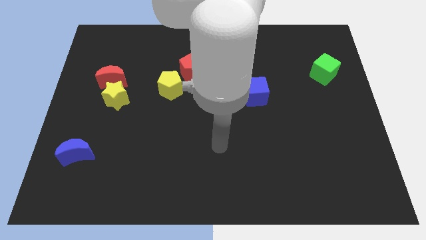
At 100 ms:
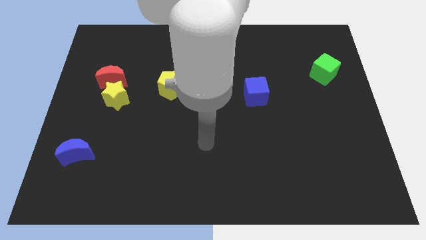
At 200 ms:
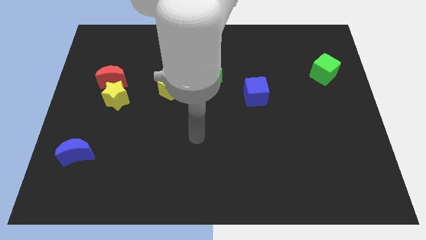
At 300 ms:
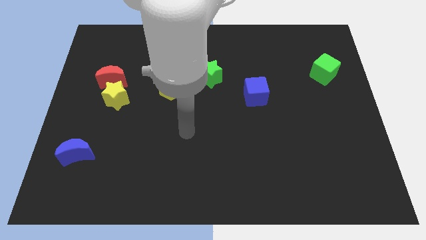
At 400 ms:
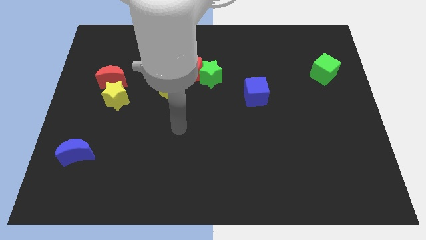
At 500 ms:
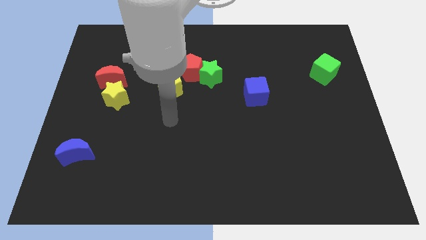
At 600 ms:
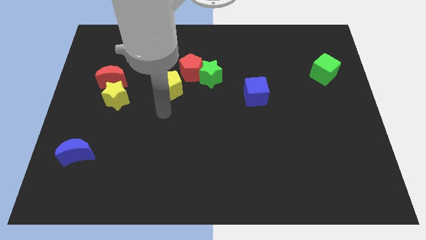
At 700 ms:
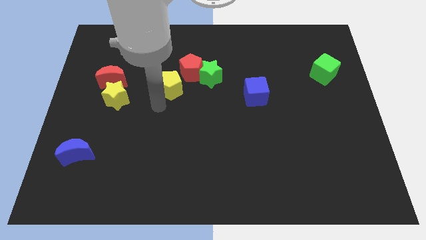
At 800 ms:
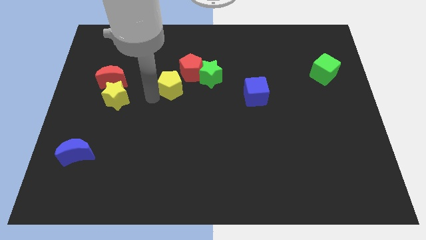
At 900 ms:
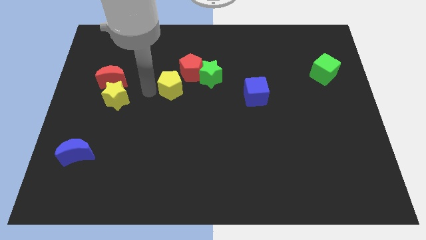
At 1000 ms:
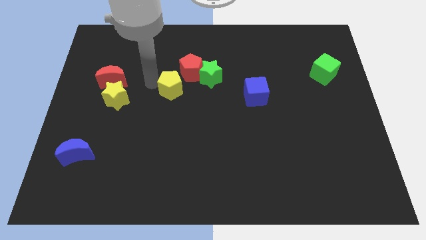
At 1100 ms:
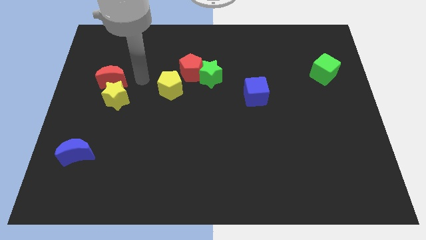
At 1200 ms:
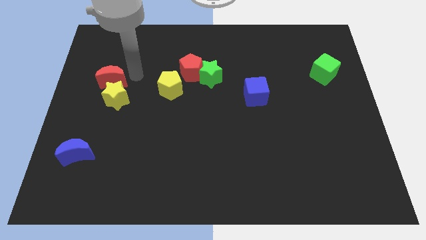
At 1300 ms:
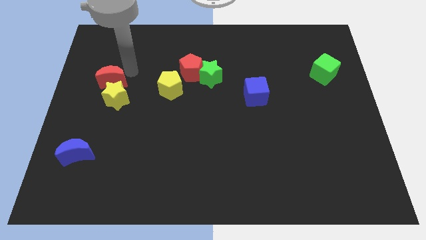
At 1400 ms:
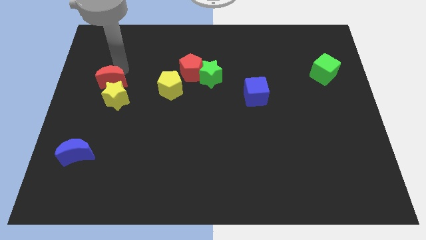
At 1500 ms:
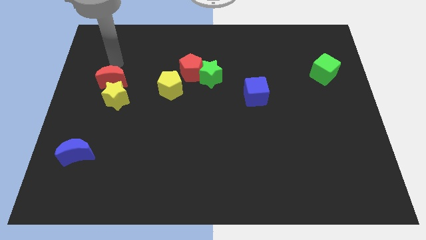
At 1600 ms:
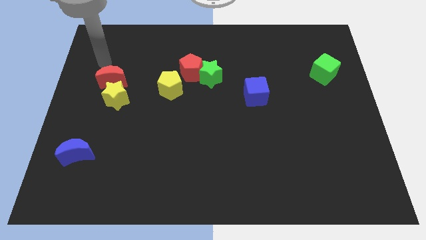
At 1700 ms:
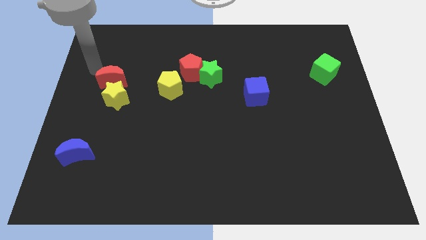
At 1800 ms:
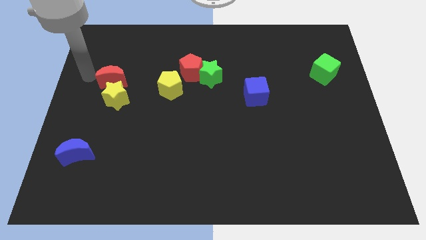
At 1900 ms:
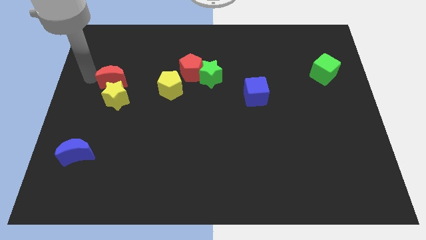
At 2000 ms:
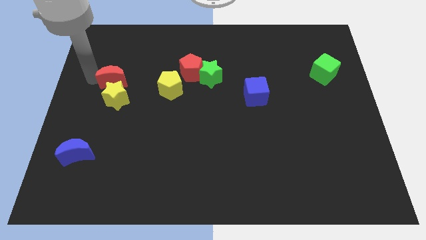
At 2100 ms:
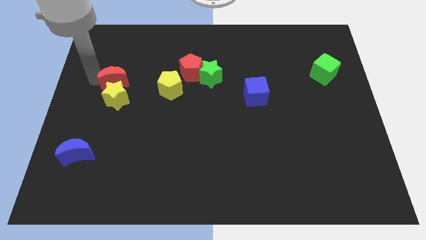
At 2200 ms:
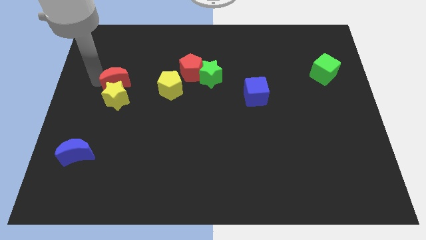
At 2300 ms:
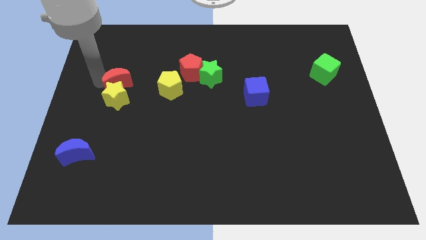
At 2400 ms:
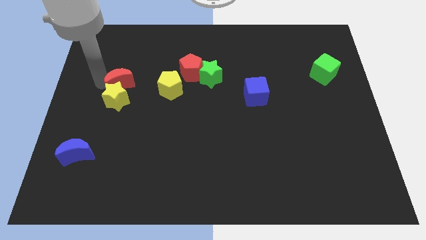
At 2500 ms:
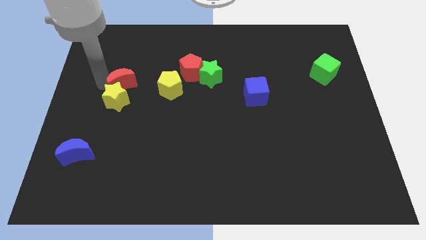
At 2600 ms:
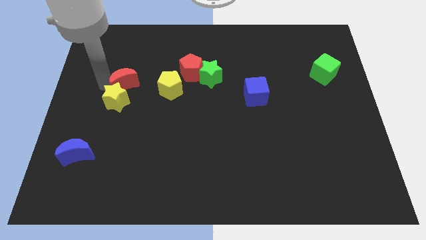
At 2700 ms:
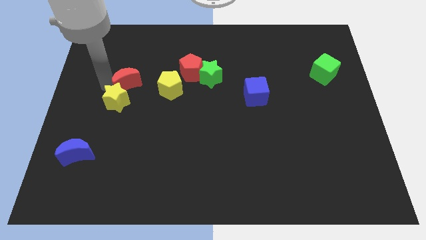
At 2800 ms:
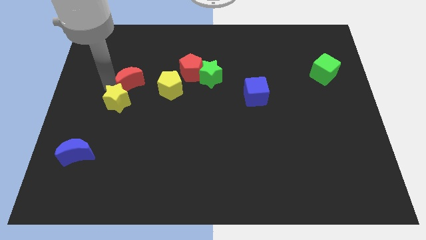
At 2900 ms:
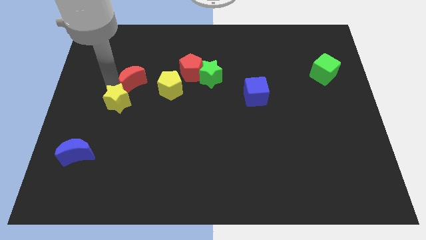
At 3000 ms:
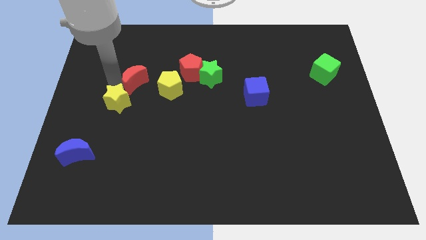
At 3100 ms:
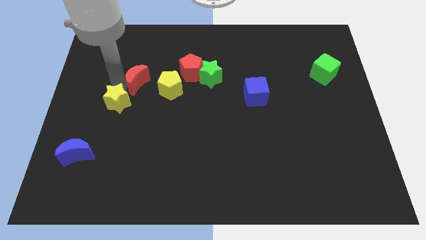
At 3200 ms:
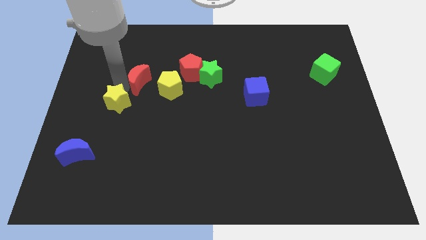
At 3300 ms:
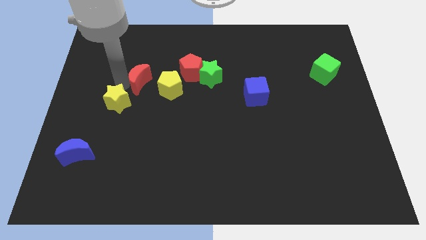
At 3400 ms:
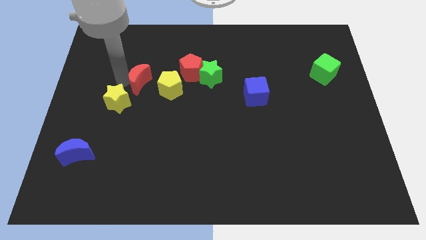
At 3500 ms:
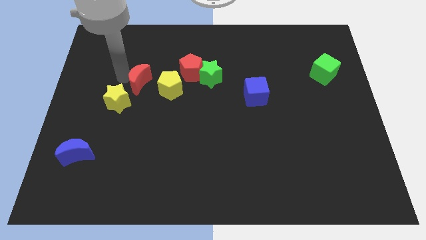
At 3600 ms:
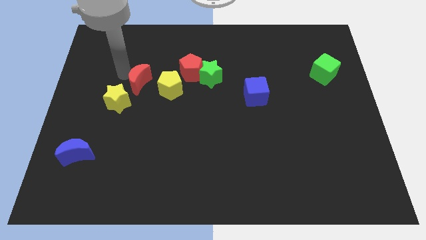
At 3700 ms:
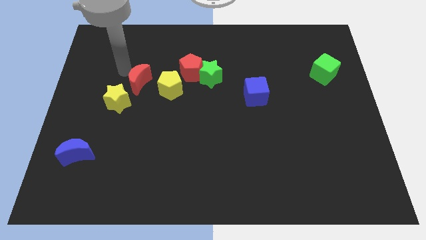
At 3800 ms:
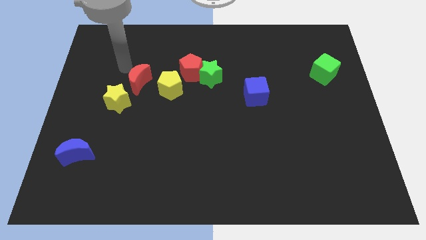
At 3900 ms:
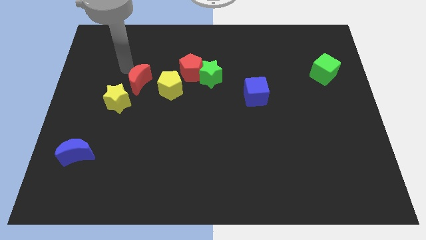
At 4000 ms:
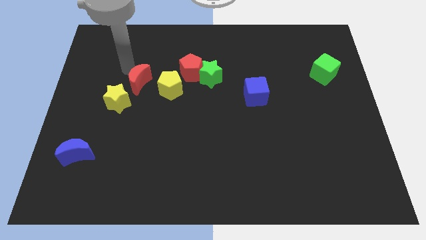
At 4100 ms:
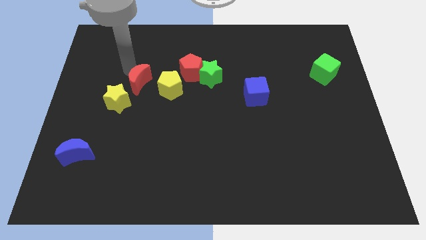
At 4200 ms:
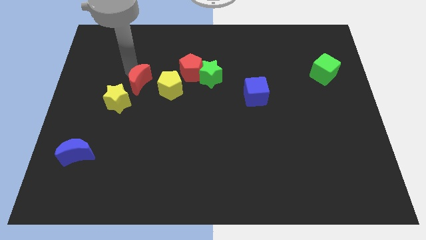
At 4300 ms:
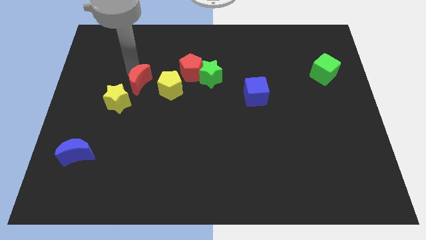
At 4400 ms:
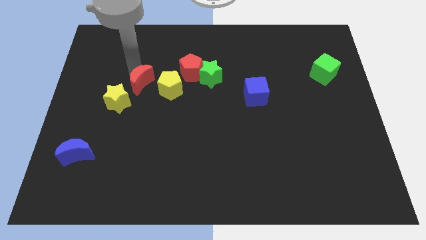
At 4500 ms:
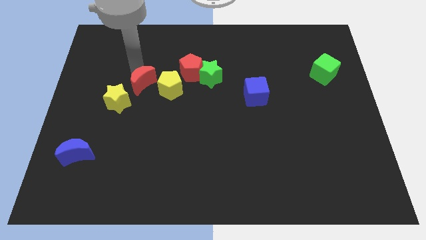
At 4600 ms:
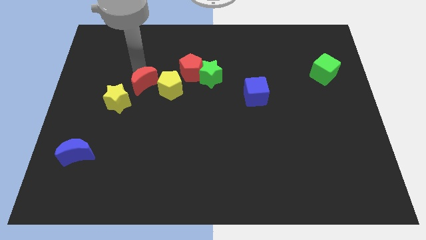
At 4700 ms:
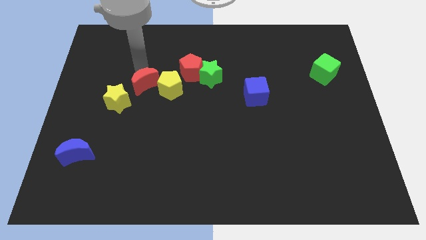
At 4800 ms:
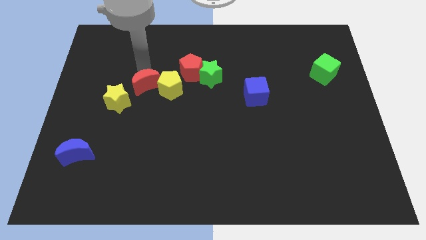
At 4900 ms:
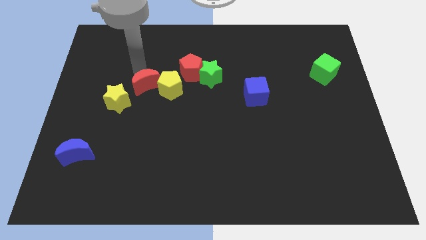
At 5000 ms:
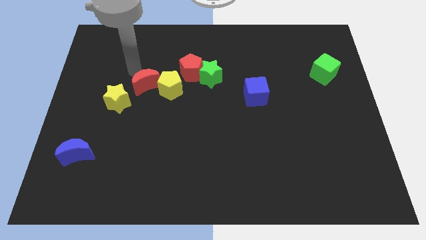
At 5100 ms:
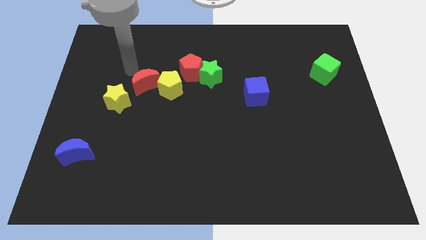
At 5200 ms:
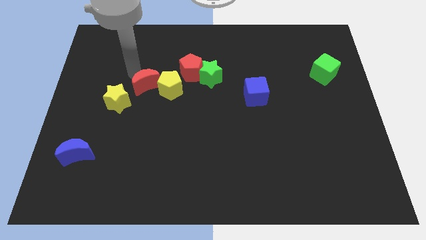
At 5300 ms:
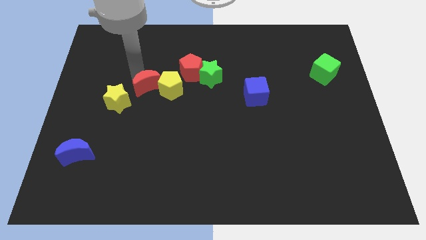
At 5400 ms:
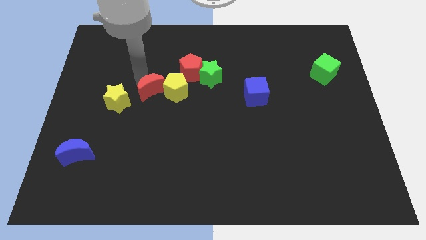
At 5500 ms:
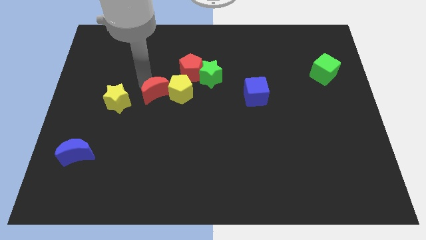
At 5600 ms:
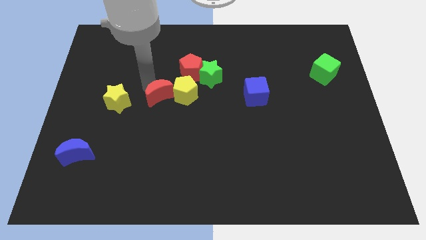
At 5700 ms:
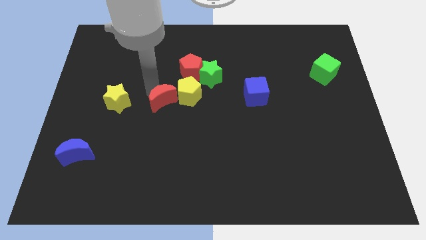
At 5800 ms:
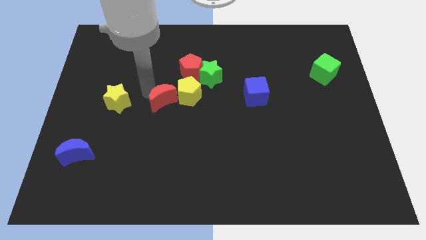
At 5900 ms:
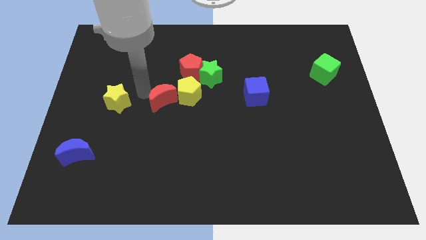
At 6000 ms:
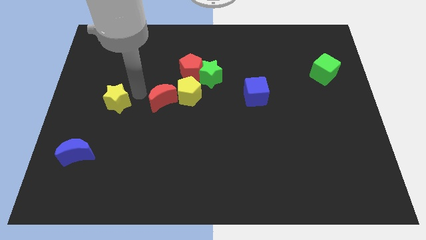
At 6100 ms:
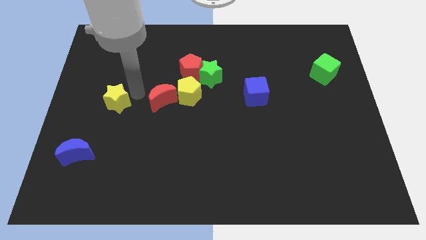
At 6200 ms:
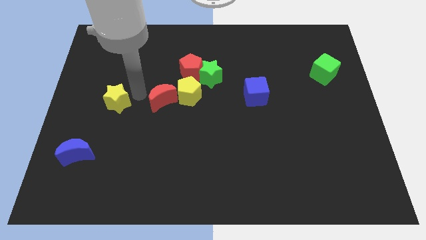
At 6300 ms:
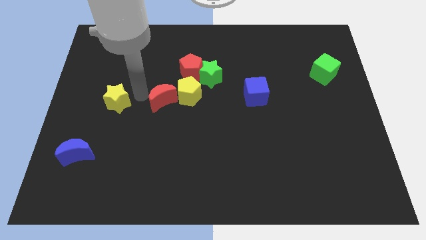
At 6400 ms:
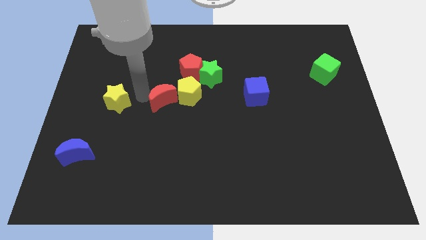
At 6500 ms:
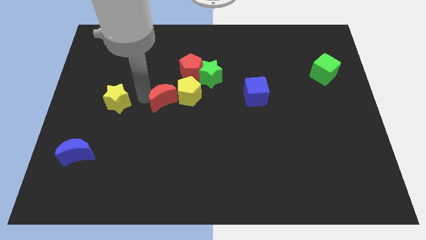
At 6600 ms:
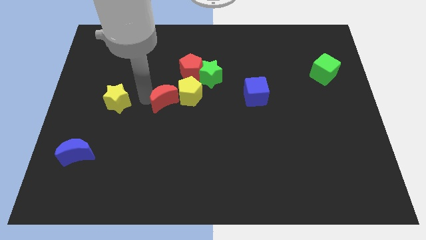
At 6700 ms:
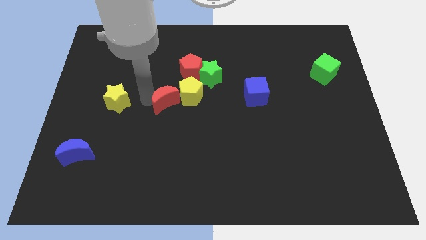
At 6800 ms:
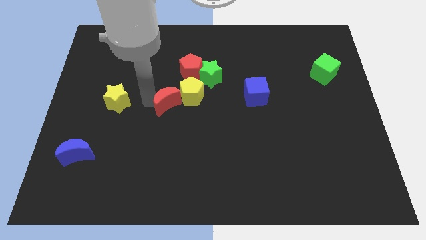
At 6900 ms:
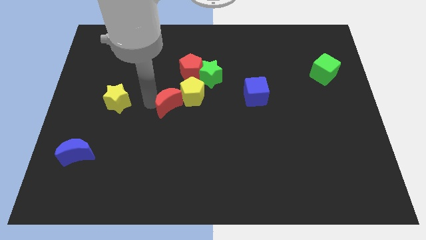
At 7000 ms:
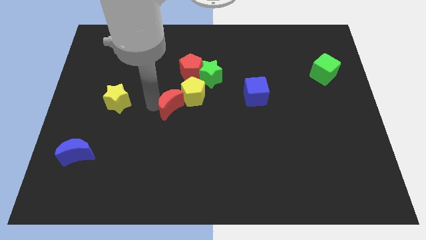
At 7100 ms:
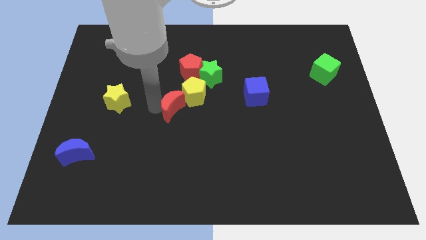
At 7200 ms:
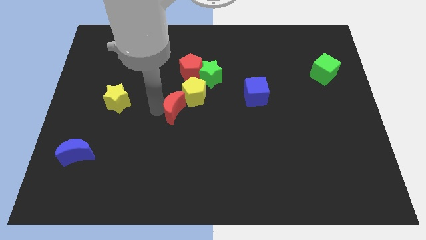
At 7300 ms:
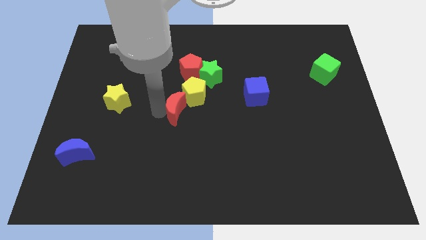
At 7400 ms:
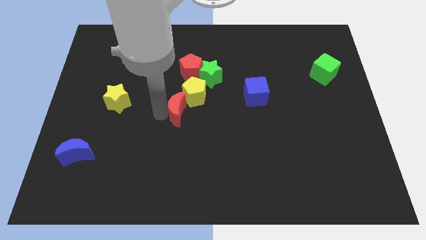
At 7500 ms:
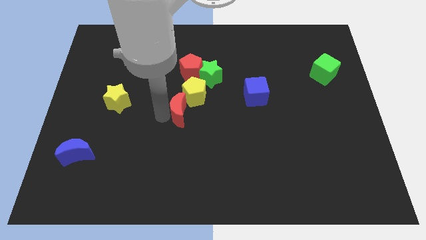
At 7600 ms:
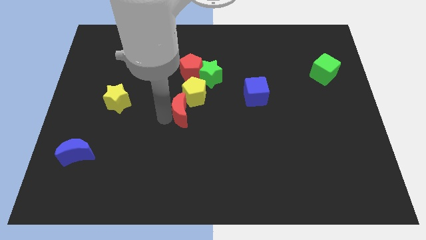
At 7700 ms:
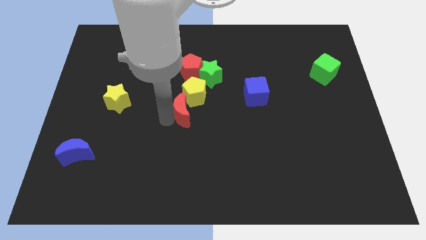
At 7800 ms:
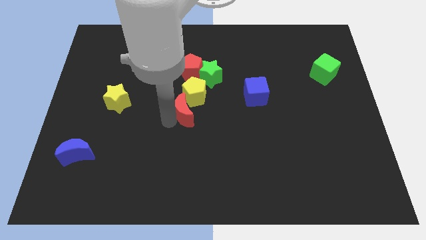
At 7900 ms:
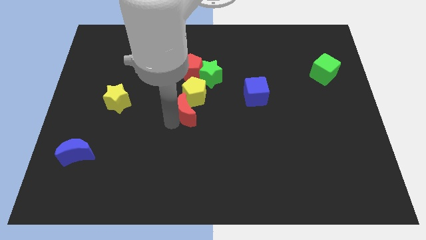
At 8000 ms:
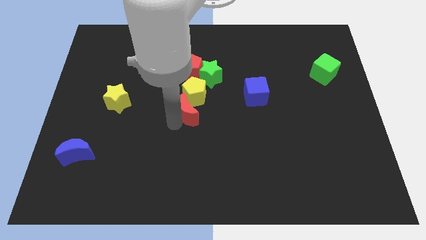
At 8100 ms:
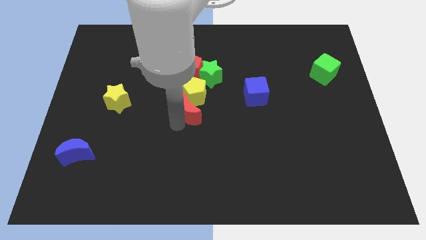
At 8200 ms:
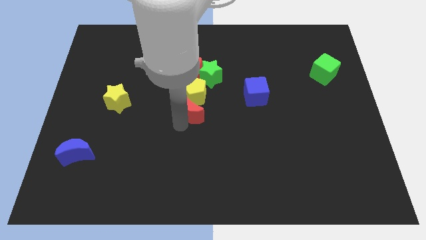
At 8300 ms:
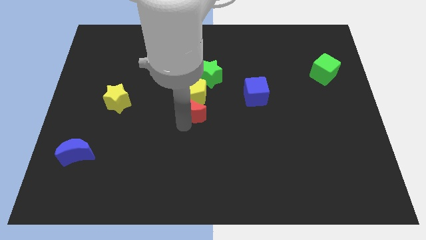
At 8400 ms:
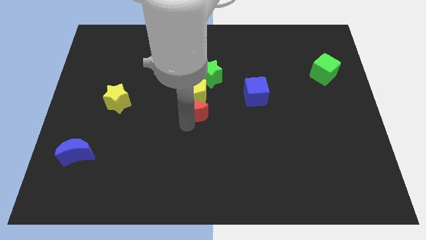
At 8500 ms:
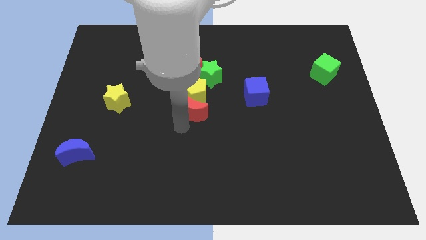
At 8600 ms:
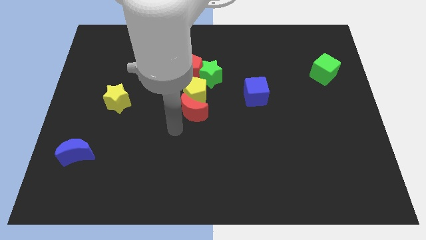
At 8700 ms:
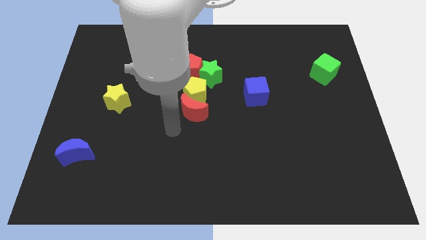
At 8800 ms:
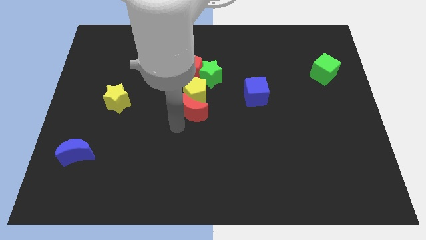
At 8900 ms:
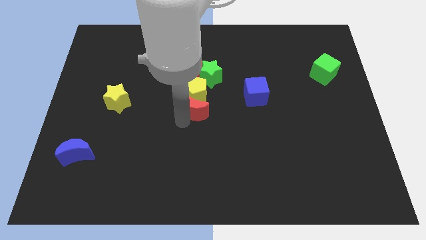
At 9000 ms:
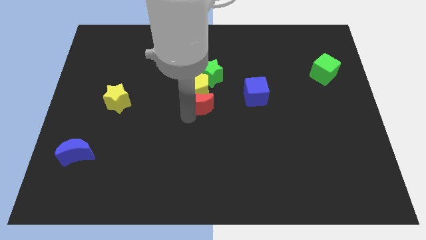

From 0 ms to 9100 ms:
push the red moon to the left of the blue cube
